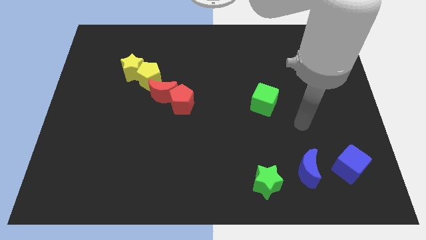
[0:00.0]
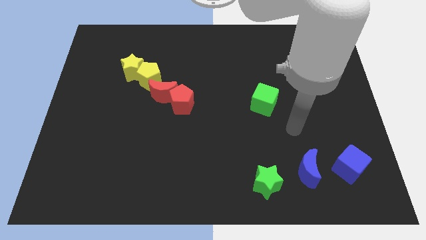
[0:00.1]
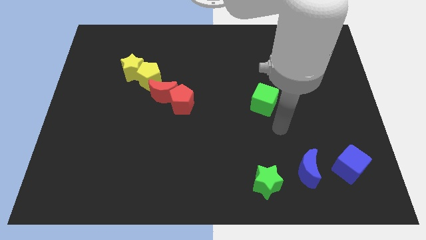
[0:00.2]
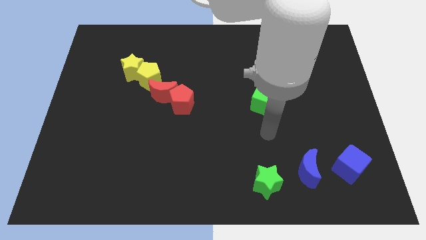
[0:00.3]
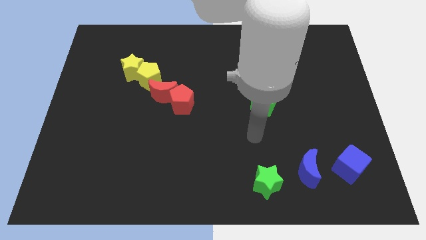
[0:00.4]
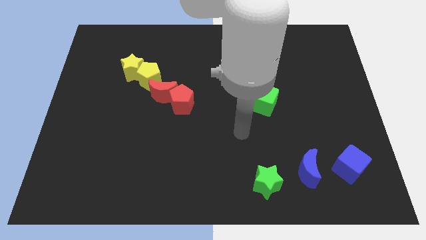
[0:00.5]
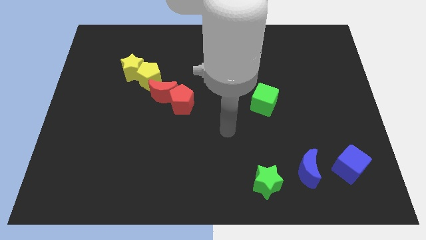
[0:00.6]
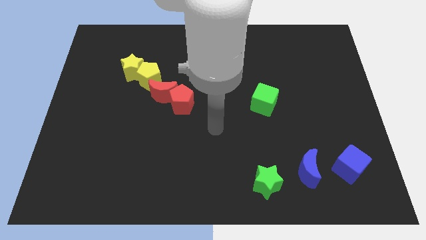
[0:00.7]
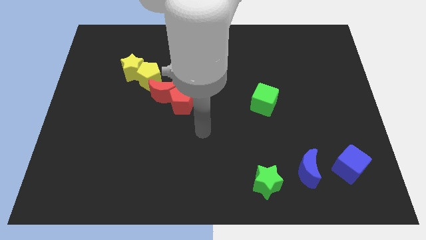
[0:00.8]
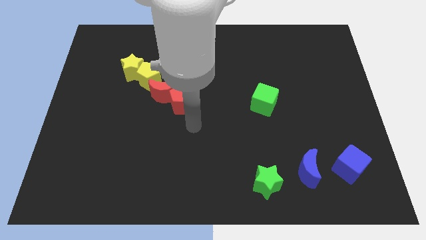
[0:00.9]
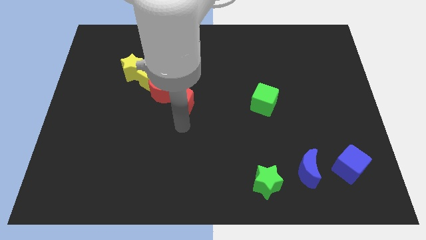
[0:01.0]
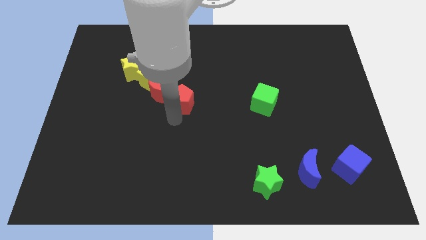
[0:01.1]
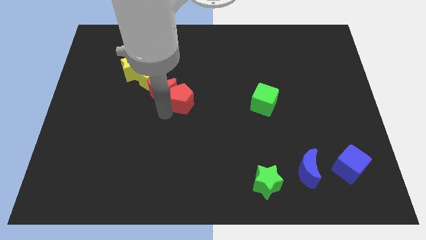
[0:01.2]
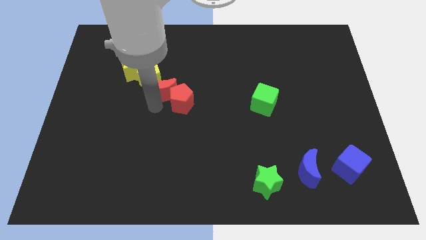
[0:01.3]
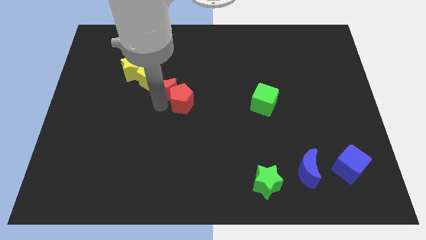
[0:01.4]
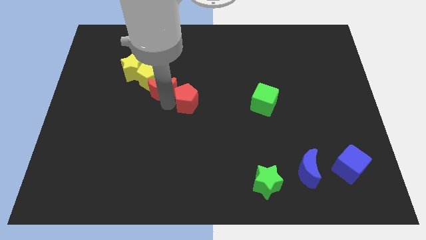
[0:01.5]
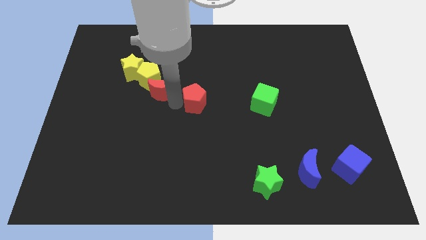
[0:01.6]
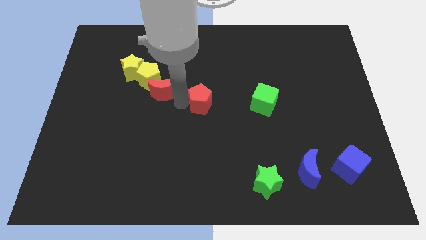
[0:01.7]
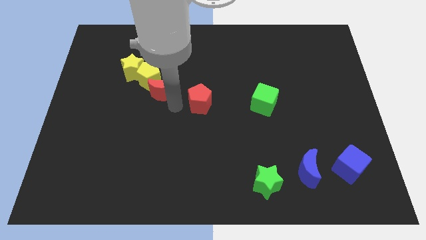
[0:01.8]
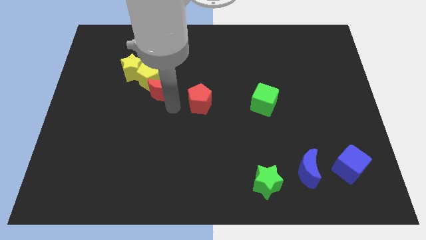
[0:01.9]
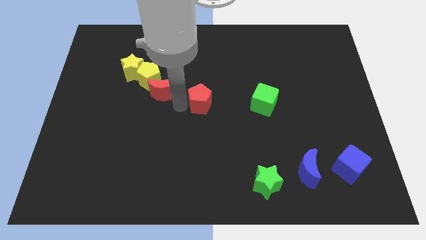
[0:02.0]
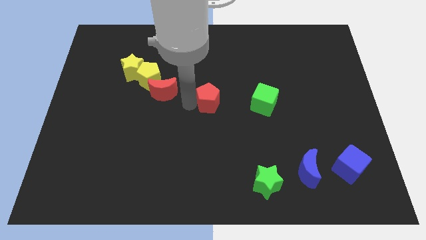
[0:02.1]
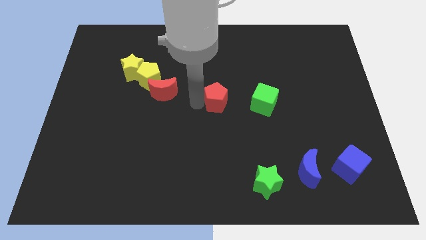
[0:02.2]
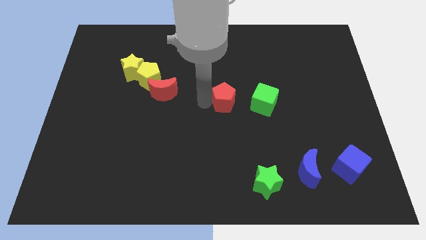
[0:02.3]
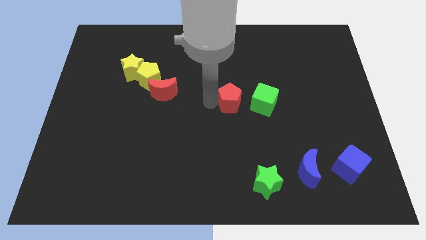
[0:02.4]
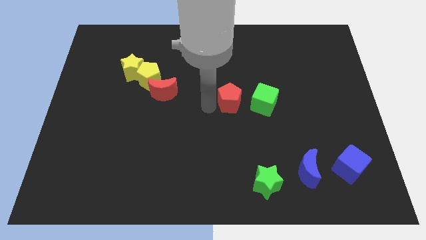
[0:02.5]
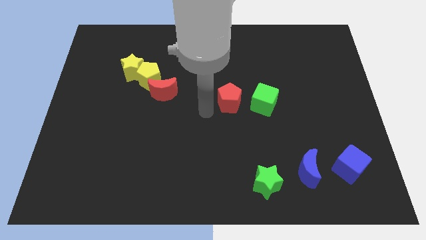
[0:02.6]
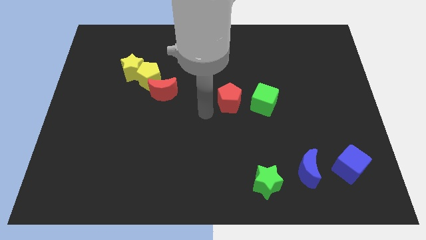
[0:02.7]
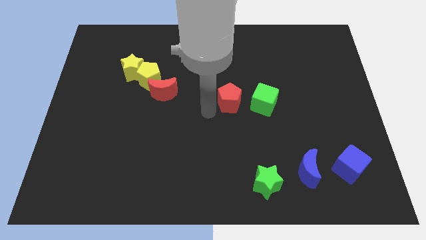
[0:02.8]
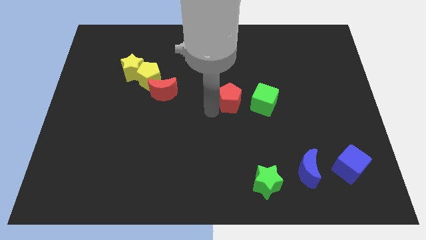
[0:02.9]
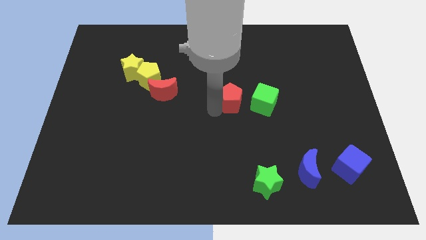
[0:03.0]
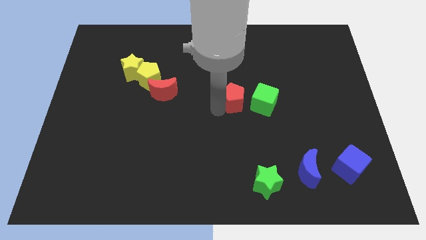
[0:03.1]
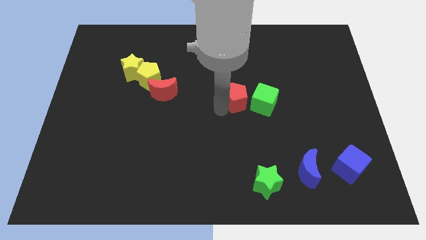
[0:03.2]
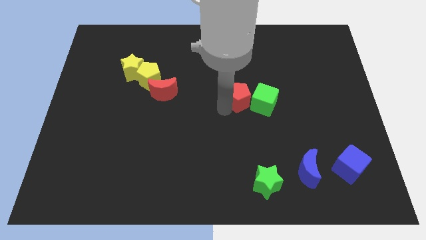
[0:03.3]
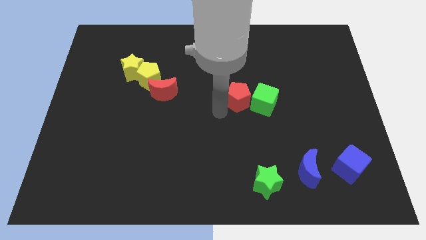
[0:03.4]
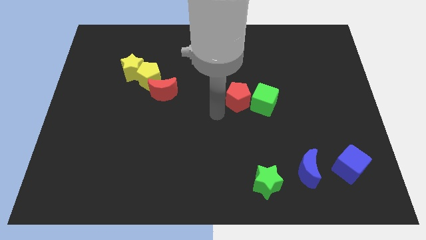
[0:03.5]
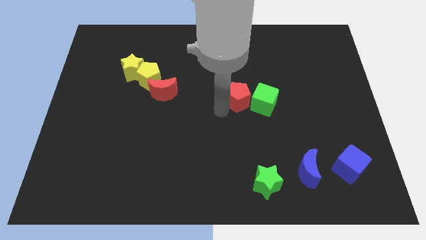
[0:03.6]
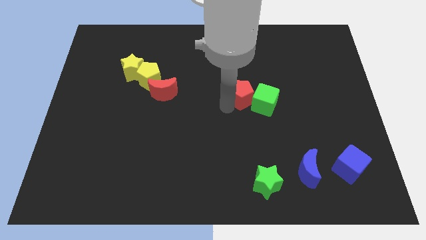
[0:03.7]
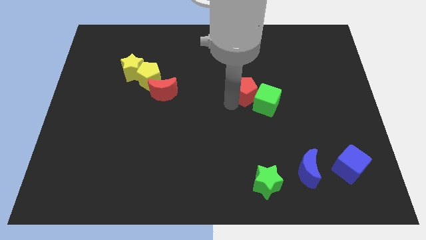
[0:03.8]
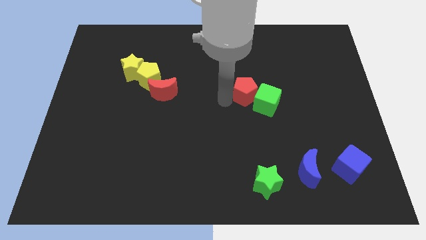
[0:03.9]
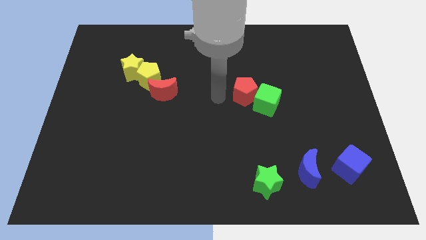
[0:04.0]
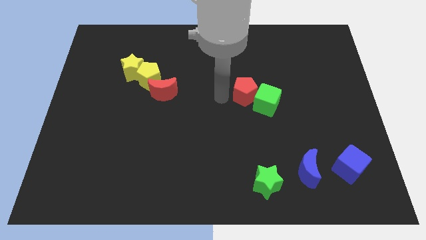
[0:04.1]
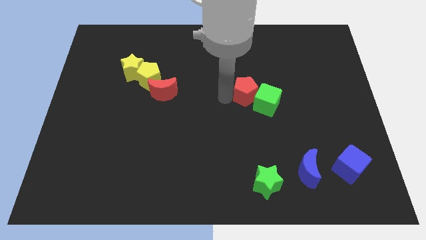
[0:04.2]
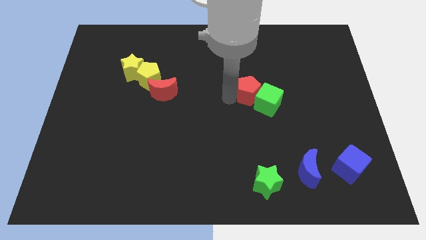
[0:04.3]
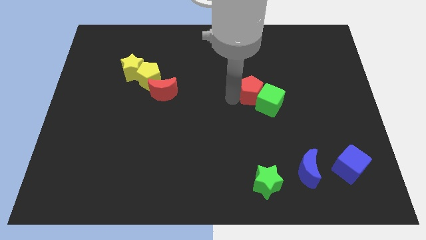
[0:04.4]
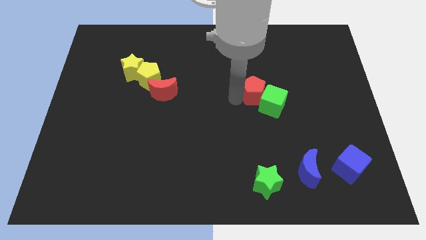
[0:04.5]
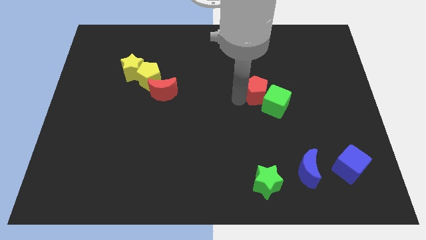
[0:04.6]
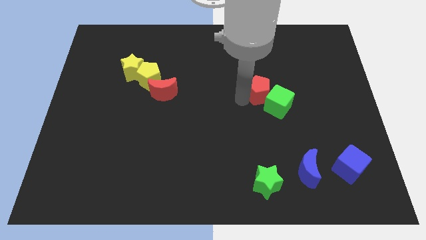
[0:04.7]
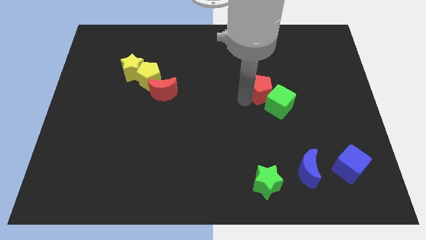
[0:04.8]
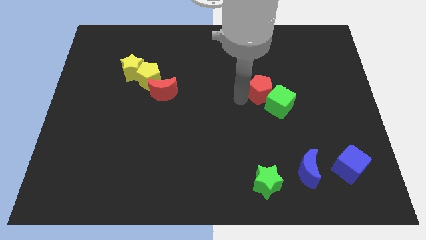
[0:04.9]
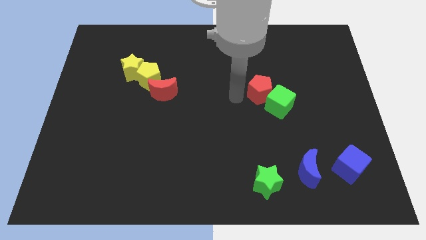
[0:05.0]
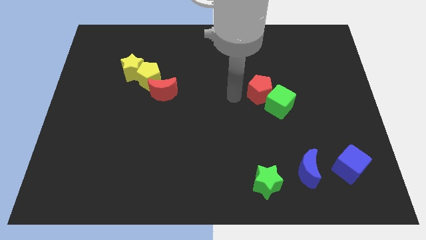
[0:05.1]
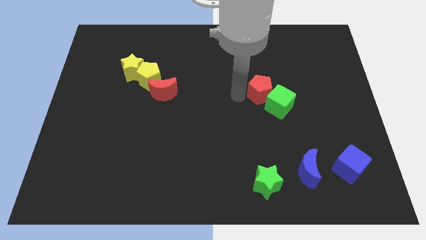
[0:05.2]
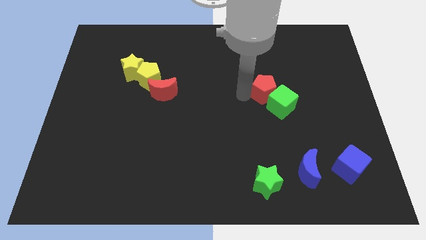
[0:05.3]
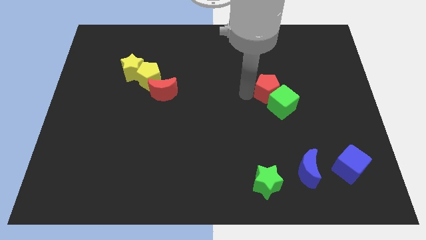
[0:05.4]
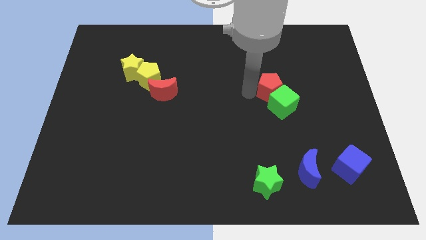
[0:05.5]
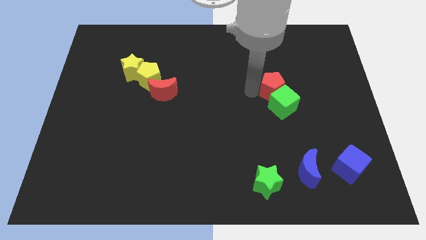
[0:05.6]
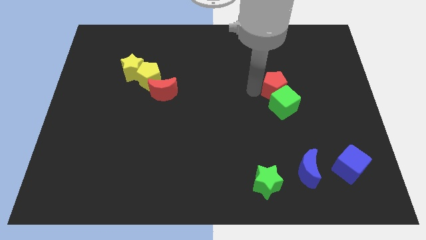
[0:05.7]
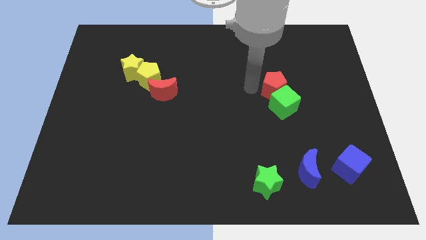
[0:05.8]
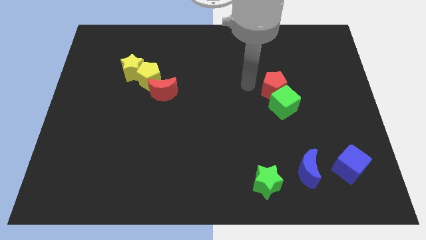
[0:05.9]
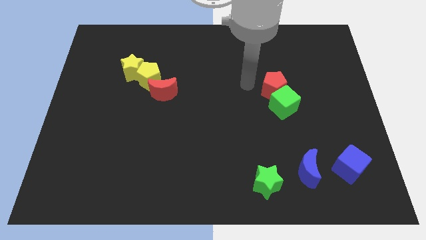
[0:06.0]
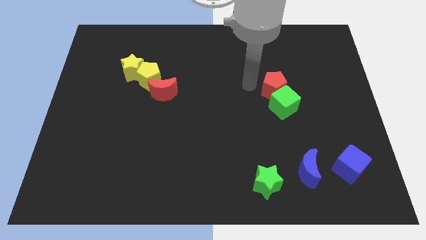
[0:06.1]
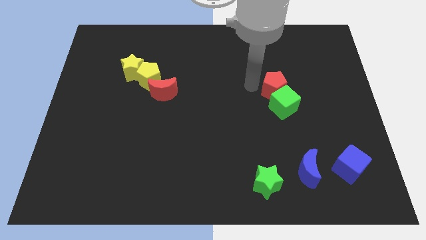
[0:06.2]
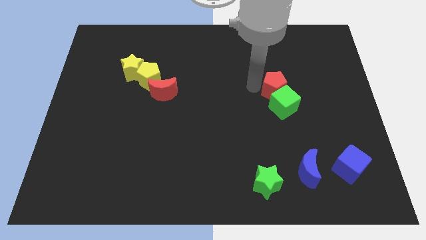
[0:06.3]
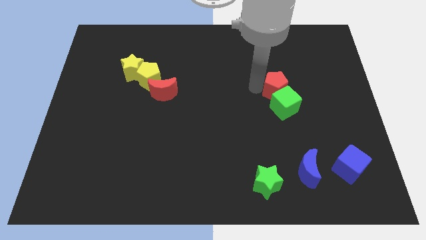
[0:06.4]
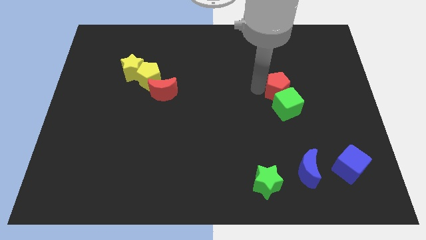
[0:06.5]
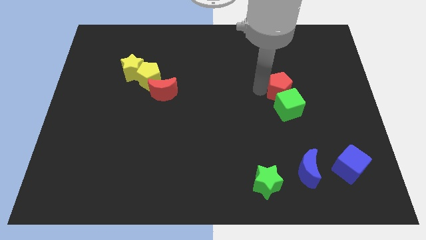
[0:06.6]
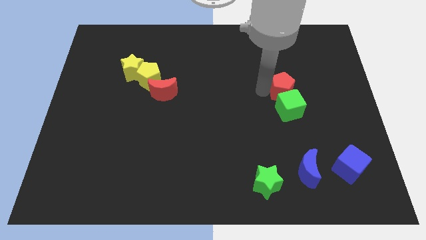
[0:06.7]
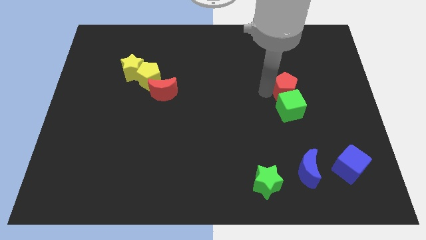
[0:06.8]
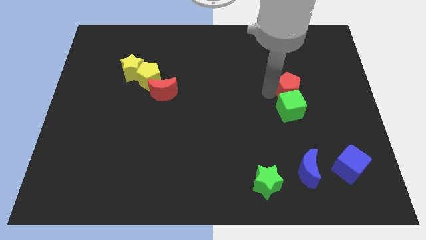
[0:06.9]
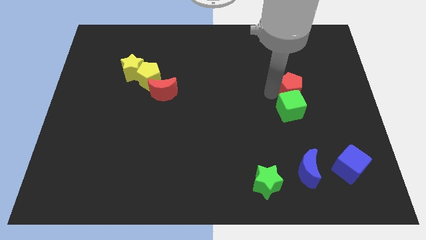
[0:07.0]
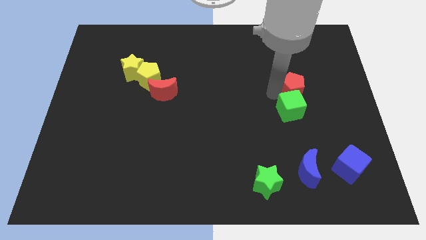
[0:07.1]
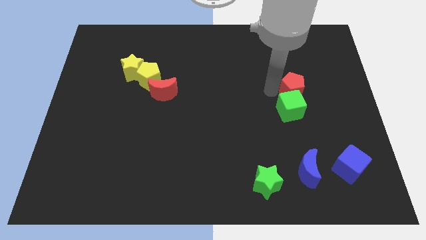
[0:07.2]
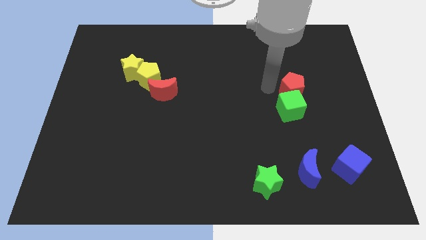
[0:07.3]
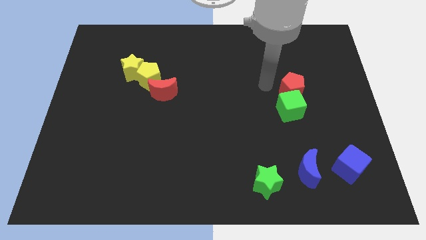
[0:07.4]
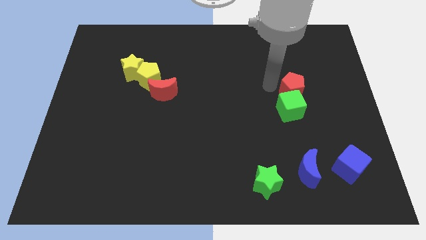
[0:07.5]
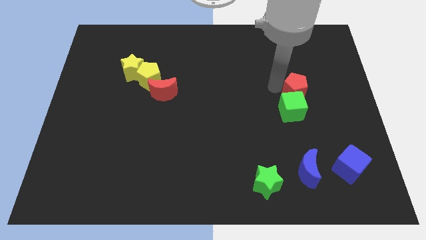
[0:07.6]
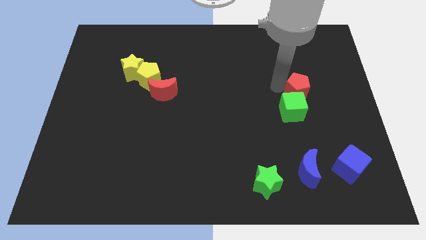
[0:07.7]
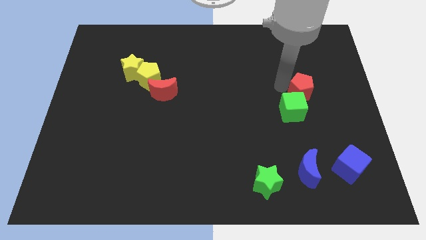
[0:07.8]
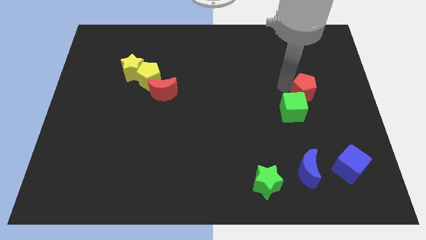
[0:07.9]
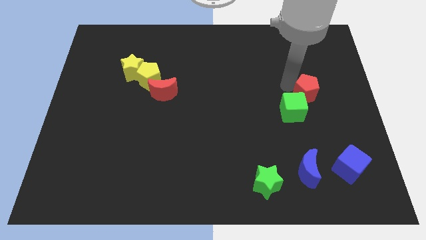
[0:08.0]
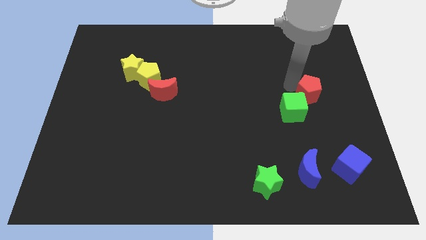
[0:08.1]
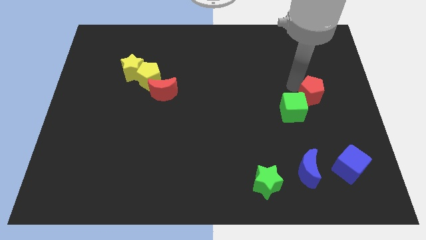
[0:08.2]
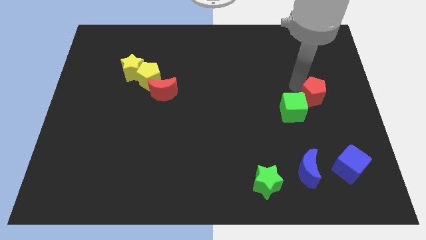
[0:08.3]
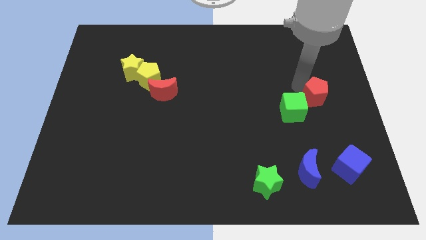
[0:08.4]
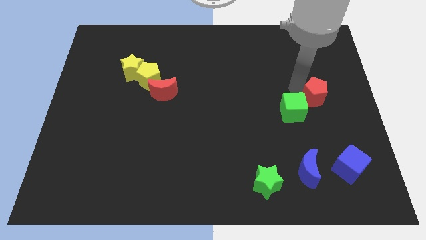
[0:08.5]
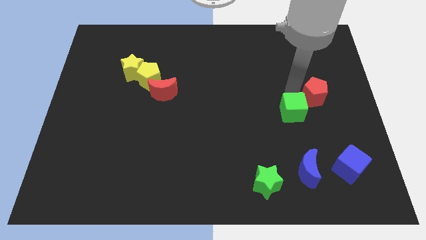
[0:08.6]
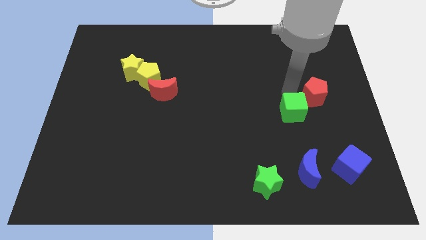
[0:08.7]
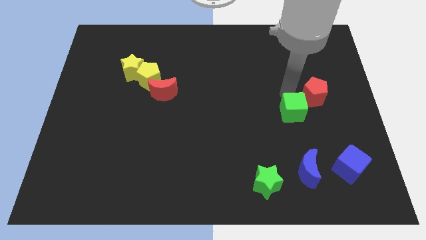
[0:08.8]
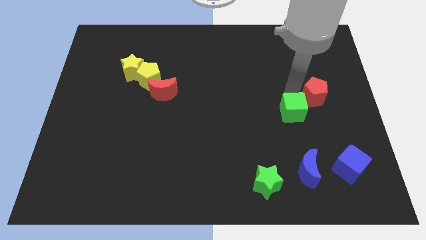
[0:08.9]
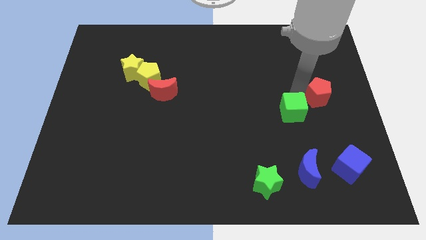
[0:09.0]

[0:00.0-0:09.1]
push the red pentagon to the right side
